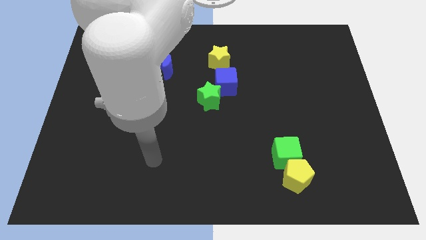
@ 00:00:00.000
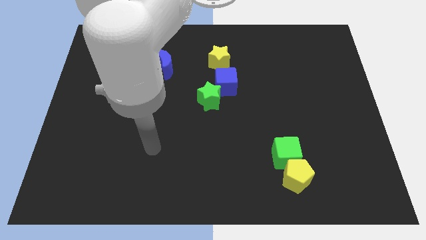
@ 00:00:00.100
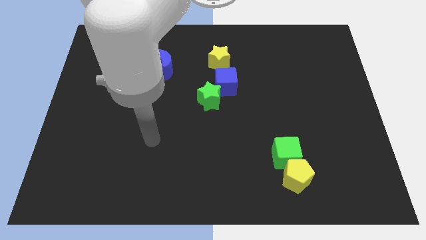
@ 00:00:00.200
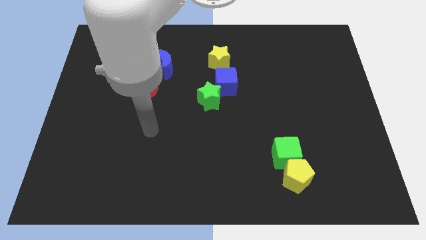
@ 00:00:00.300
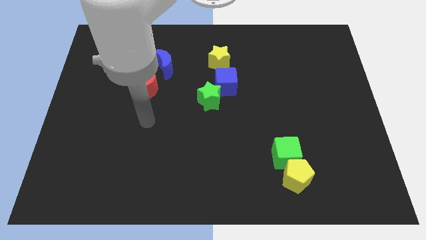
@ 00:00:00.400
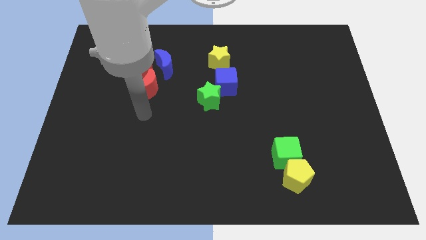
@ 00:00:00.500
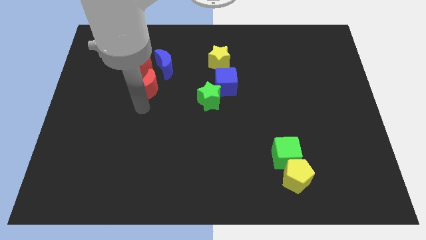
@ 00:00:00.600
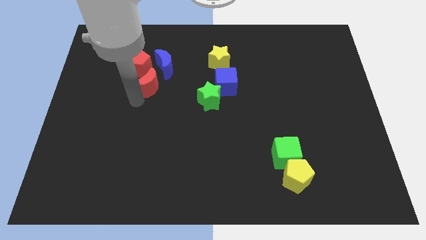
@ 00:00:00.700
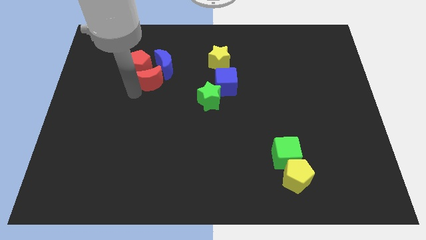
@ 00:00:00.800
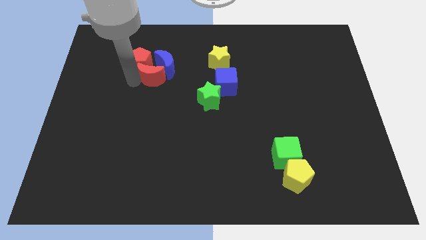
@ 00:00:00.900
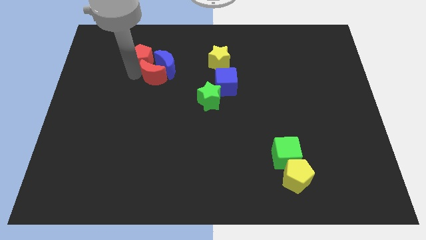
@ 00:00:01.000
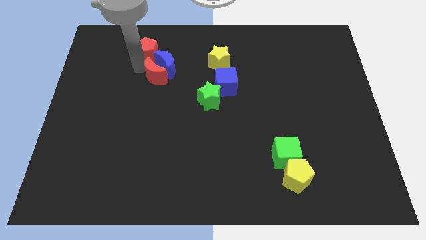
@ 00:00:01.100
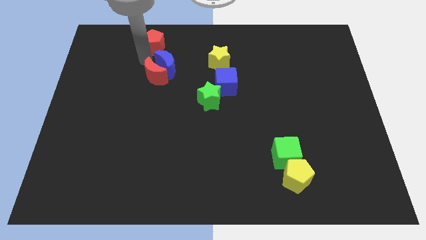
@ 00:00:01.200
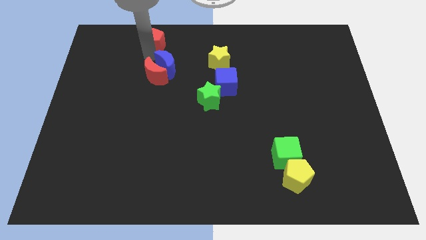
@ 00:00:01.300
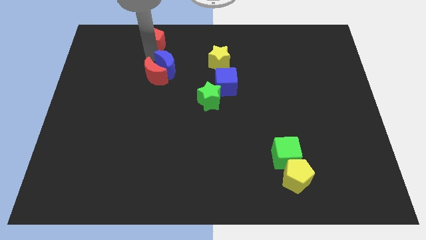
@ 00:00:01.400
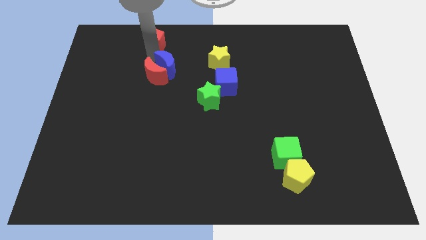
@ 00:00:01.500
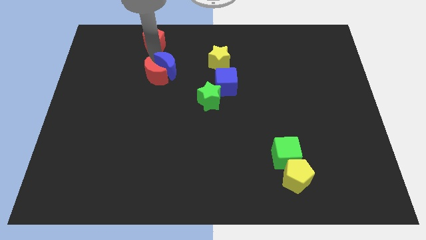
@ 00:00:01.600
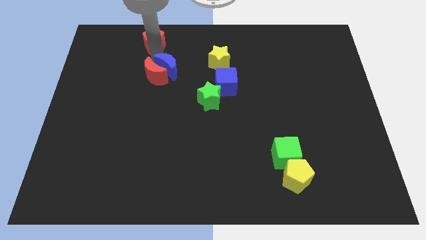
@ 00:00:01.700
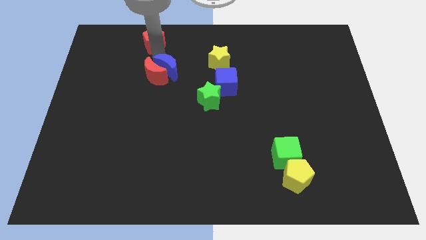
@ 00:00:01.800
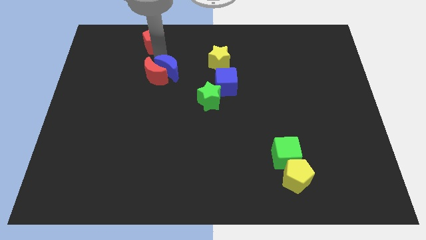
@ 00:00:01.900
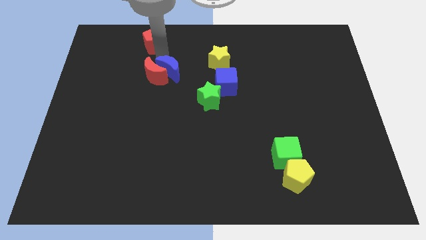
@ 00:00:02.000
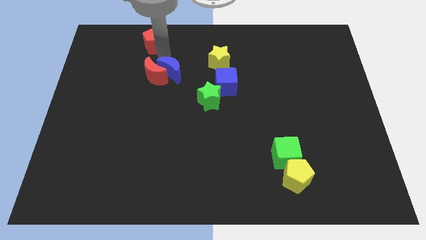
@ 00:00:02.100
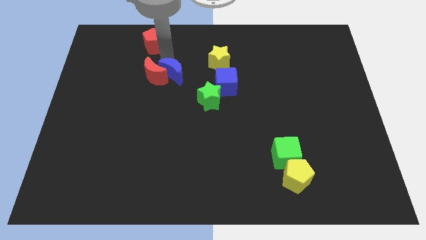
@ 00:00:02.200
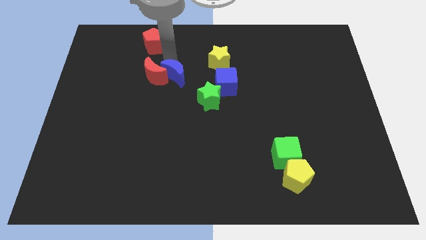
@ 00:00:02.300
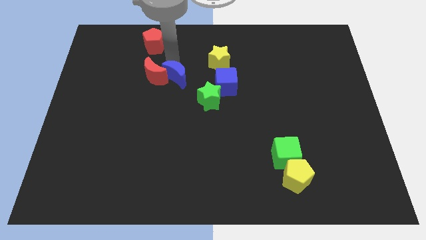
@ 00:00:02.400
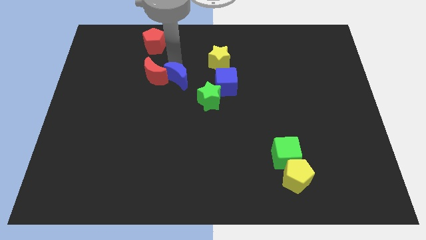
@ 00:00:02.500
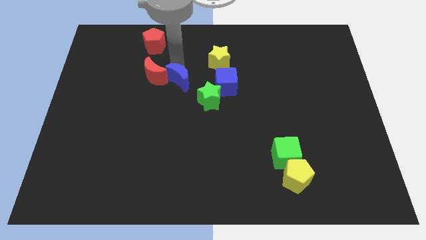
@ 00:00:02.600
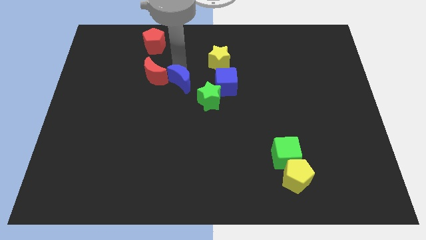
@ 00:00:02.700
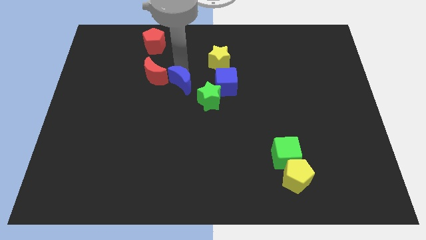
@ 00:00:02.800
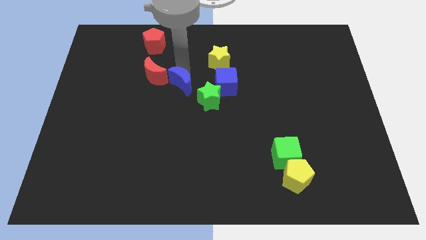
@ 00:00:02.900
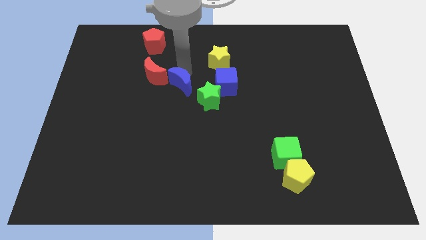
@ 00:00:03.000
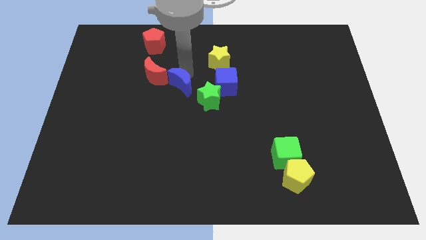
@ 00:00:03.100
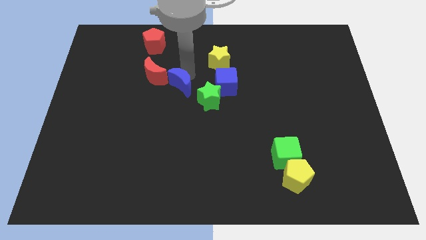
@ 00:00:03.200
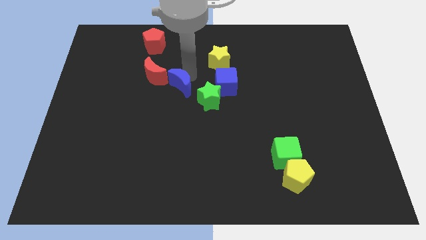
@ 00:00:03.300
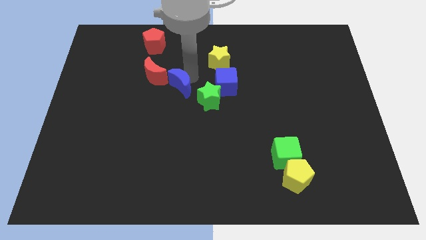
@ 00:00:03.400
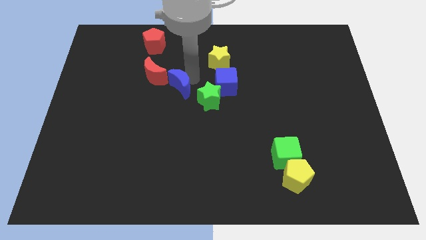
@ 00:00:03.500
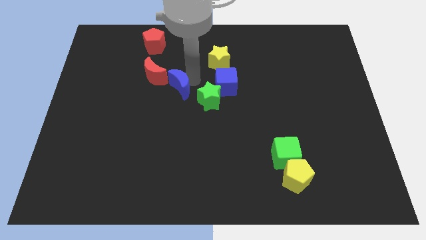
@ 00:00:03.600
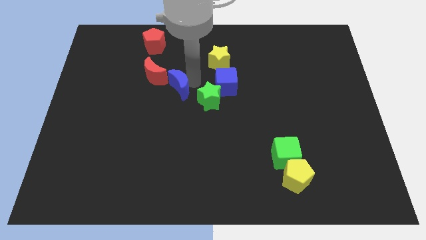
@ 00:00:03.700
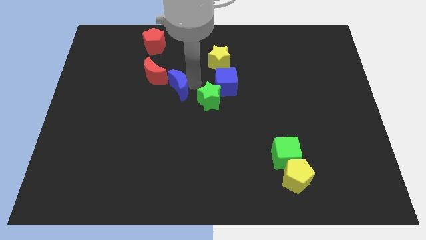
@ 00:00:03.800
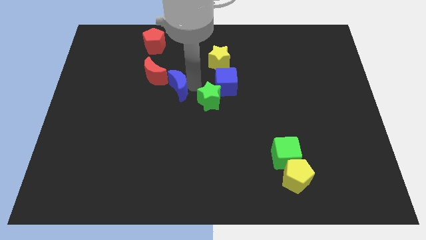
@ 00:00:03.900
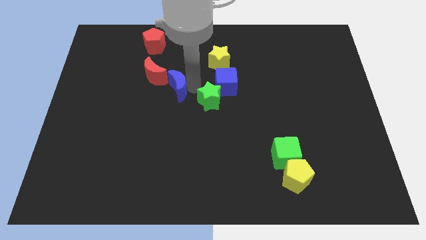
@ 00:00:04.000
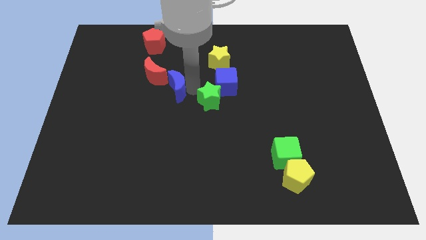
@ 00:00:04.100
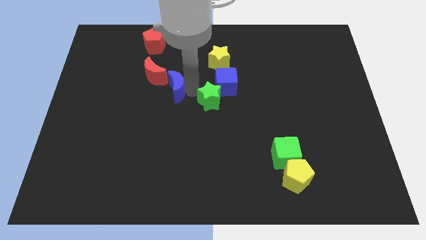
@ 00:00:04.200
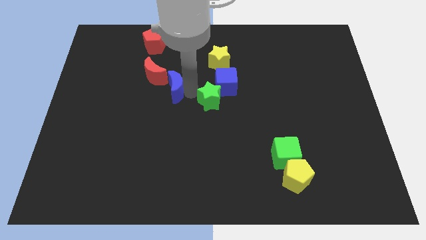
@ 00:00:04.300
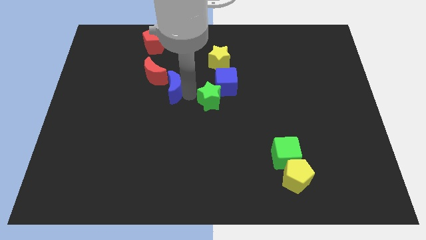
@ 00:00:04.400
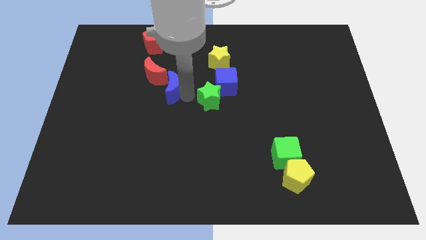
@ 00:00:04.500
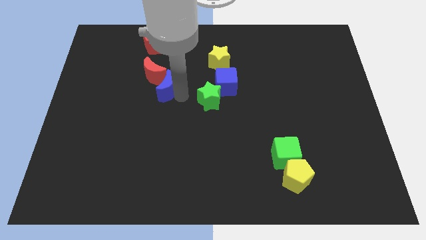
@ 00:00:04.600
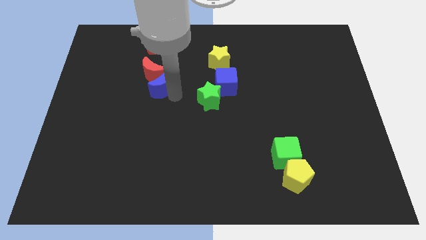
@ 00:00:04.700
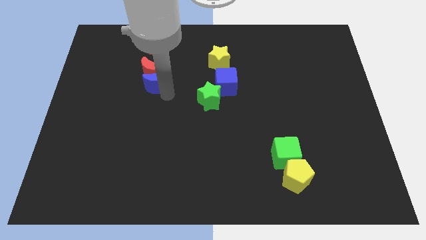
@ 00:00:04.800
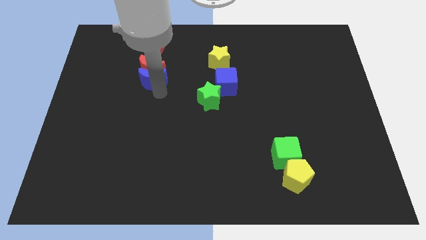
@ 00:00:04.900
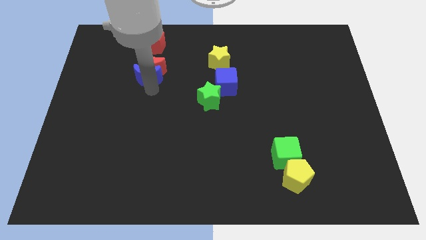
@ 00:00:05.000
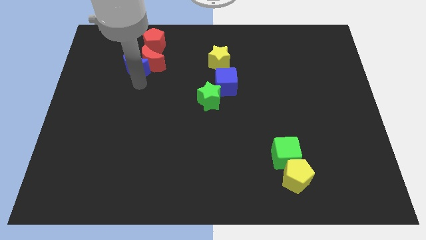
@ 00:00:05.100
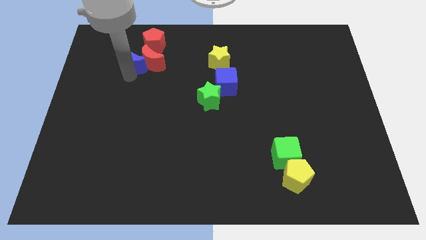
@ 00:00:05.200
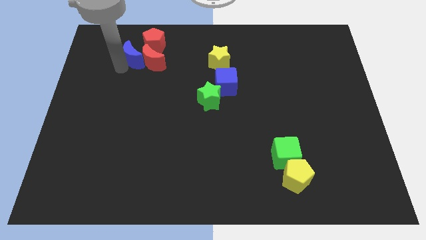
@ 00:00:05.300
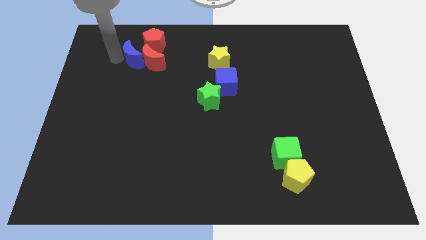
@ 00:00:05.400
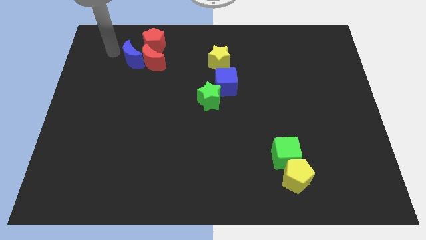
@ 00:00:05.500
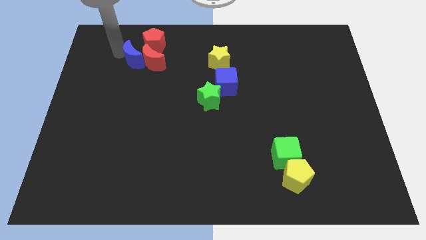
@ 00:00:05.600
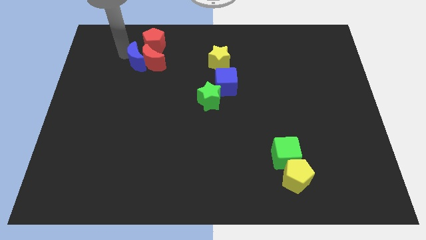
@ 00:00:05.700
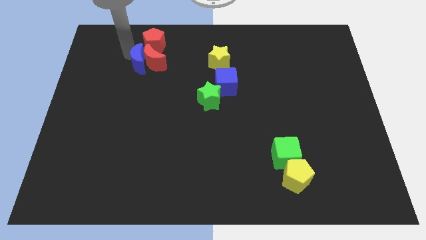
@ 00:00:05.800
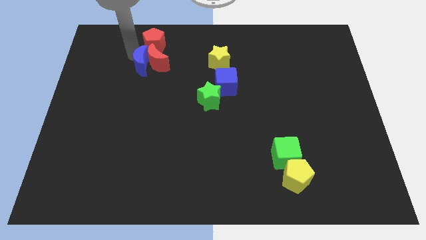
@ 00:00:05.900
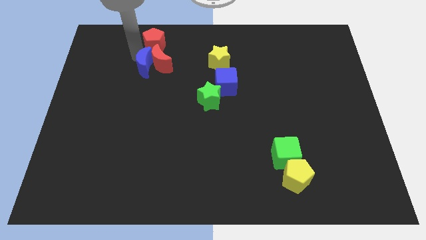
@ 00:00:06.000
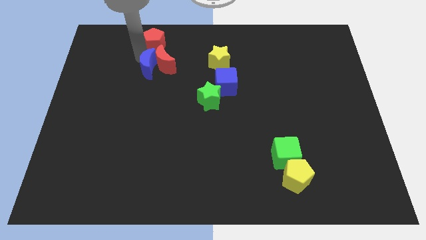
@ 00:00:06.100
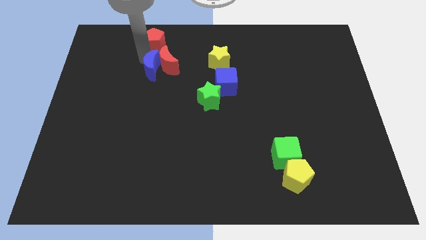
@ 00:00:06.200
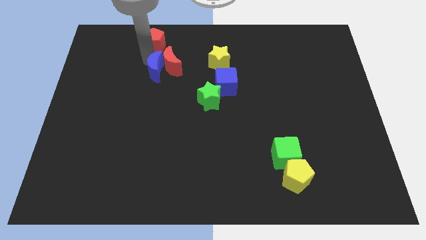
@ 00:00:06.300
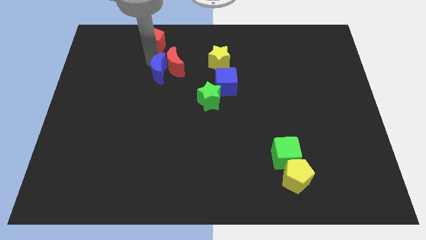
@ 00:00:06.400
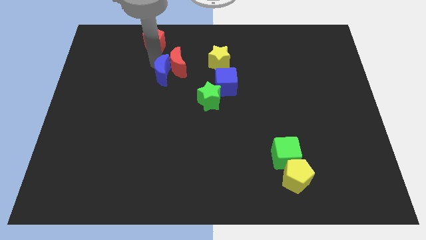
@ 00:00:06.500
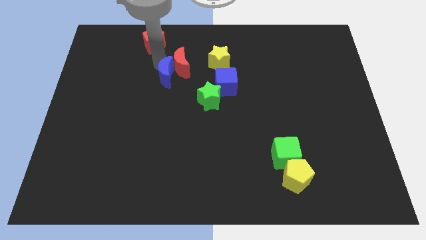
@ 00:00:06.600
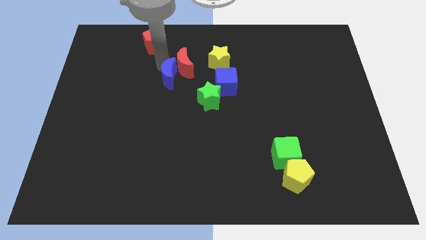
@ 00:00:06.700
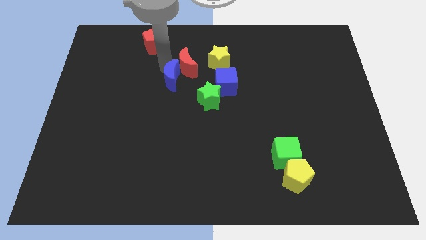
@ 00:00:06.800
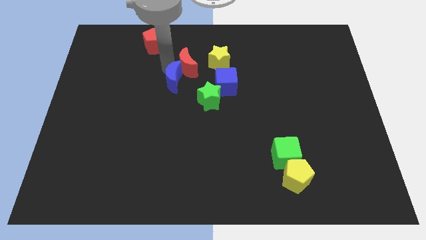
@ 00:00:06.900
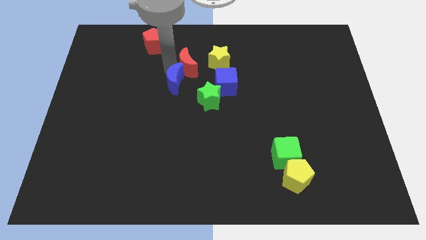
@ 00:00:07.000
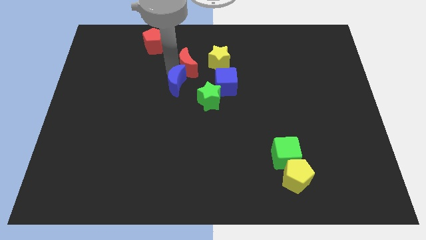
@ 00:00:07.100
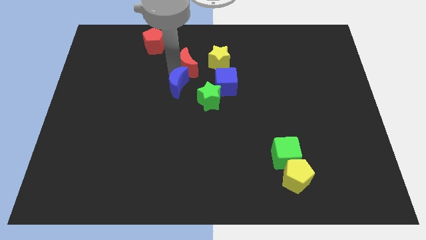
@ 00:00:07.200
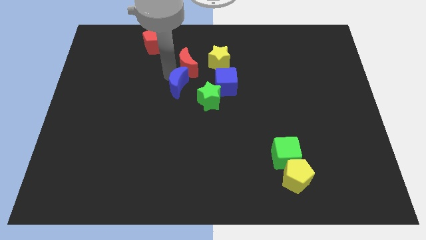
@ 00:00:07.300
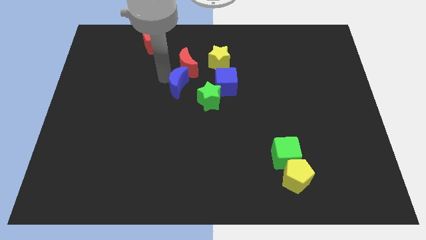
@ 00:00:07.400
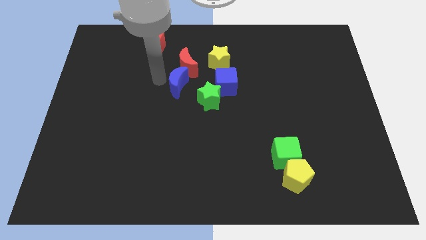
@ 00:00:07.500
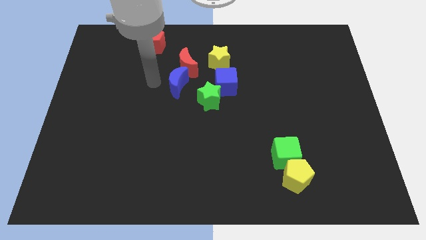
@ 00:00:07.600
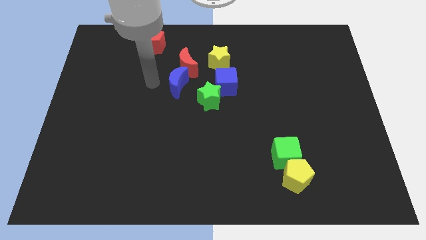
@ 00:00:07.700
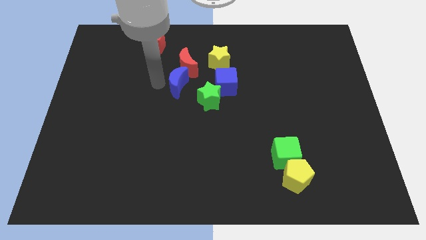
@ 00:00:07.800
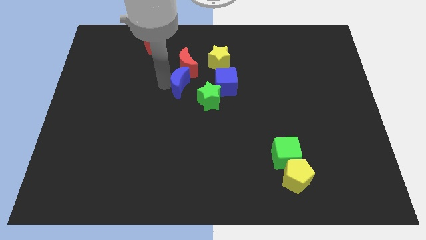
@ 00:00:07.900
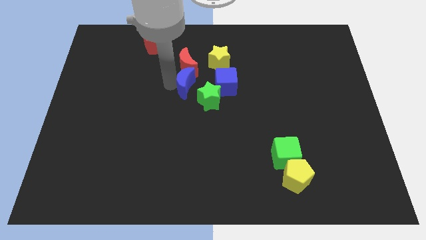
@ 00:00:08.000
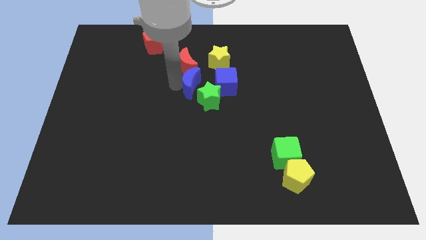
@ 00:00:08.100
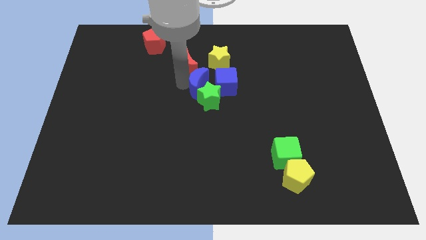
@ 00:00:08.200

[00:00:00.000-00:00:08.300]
push the blue moon close to the green star
